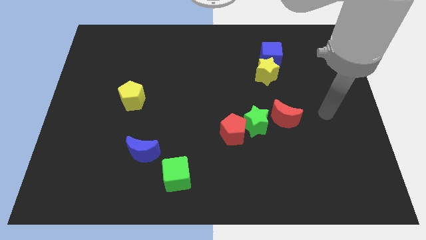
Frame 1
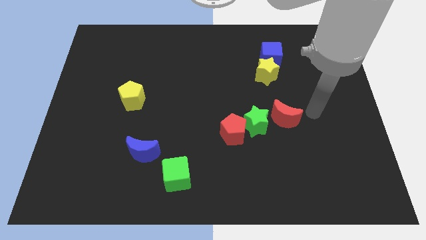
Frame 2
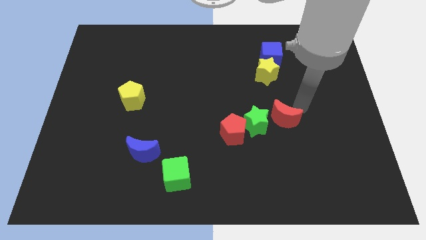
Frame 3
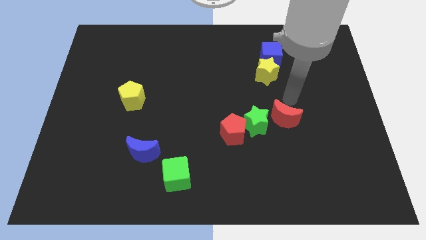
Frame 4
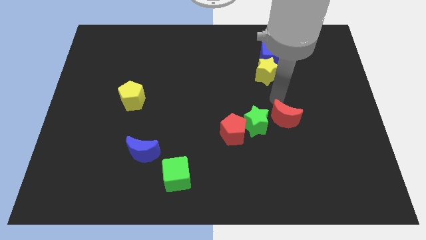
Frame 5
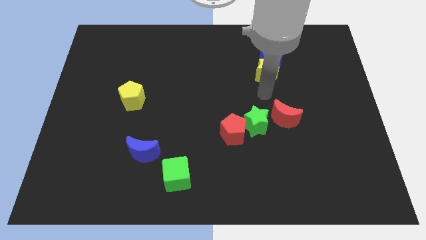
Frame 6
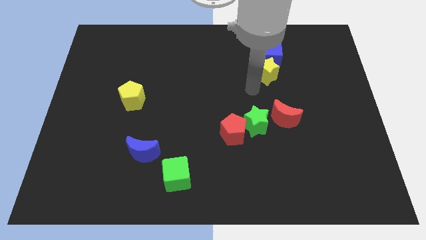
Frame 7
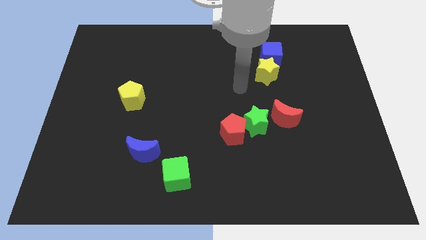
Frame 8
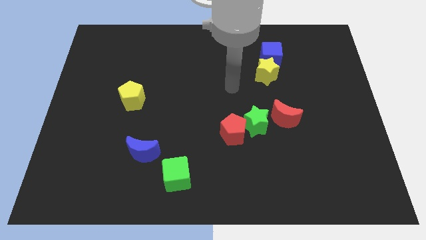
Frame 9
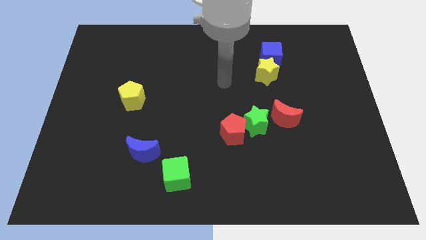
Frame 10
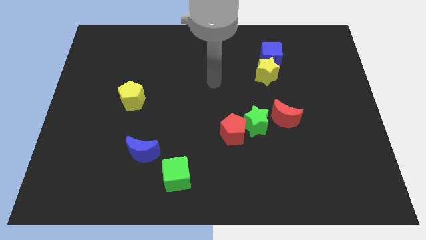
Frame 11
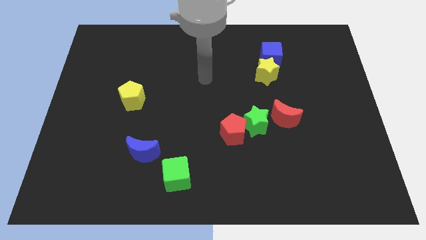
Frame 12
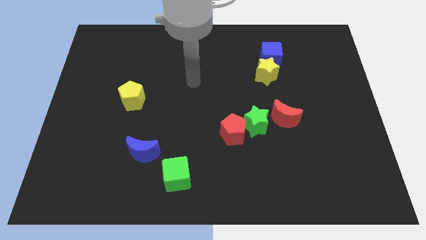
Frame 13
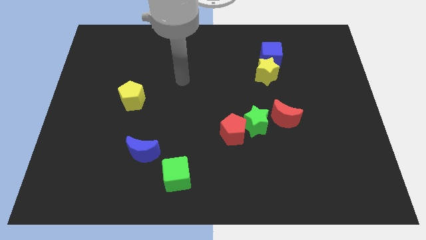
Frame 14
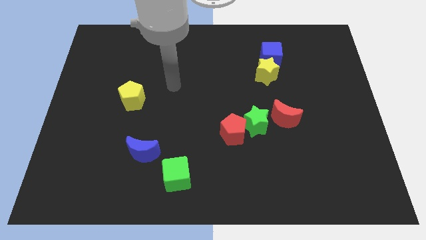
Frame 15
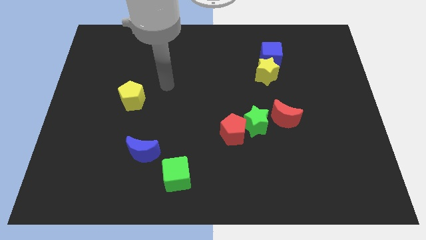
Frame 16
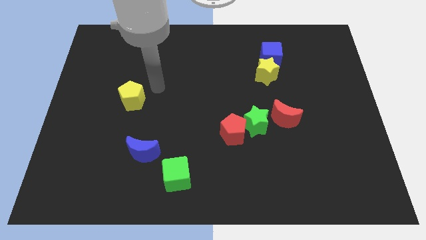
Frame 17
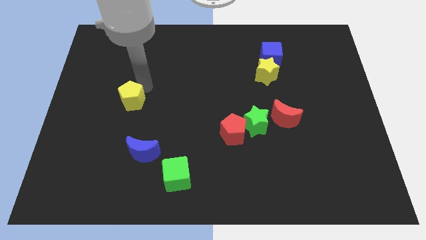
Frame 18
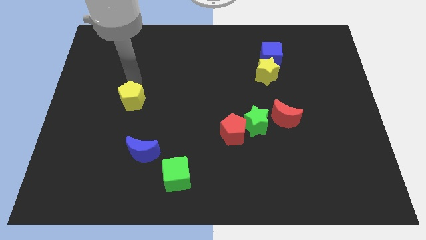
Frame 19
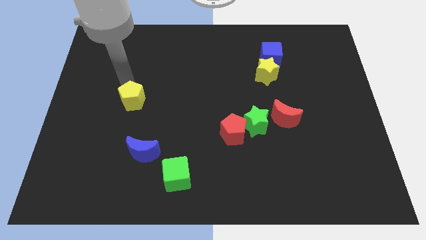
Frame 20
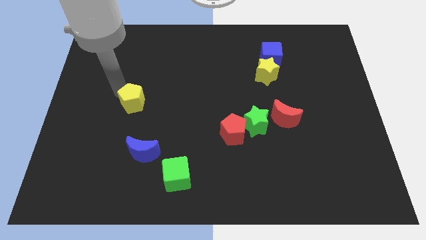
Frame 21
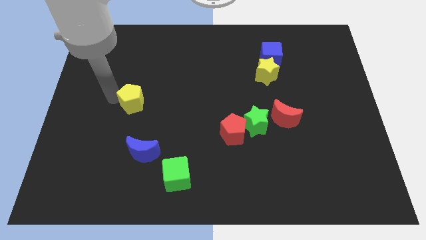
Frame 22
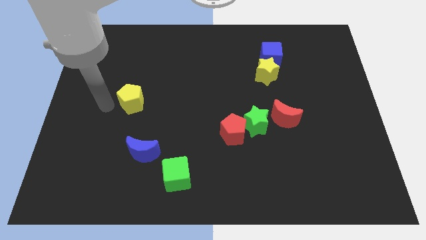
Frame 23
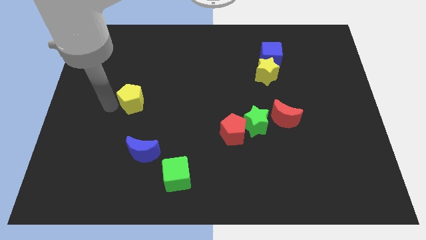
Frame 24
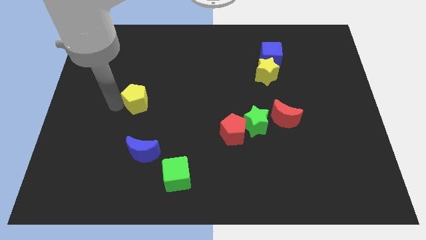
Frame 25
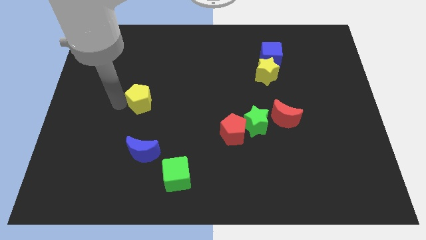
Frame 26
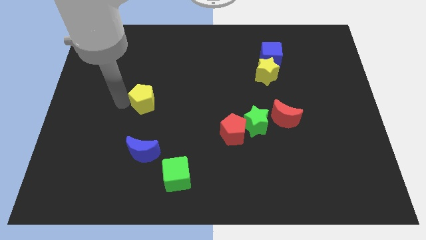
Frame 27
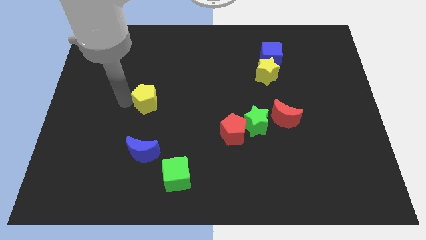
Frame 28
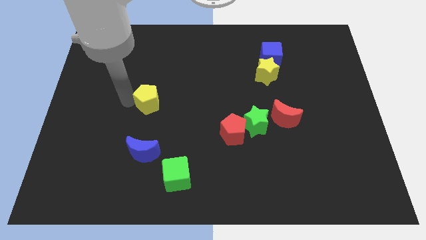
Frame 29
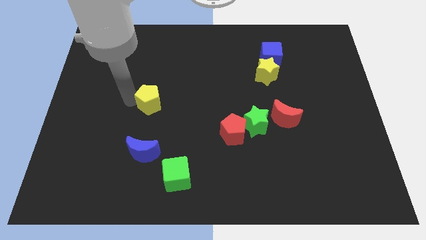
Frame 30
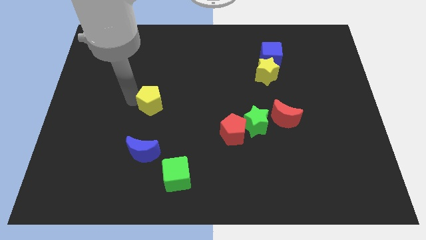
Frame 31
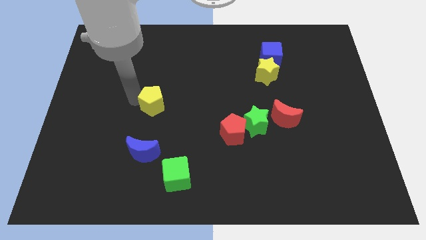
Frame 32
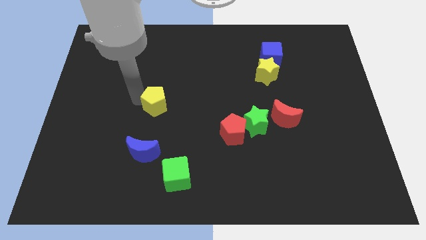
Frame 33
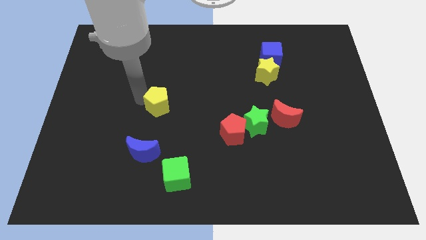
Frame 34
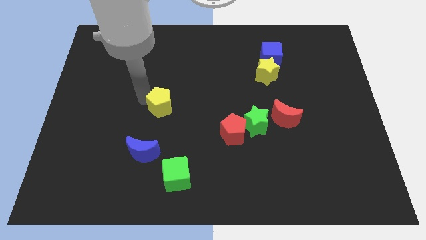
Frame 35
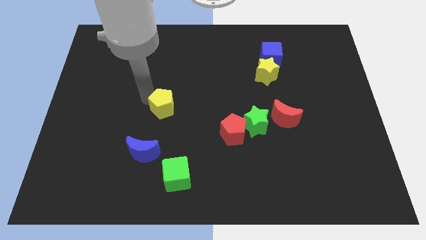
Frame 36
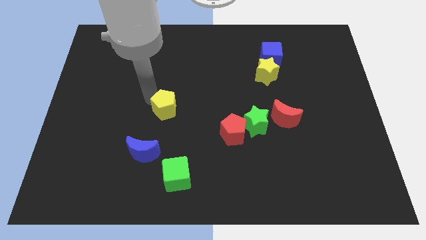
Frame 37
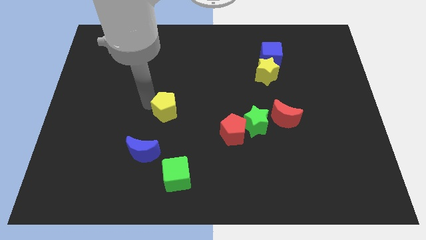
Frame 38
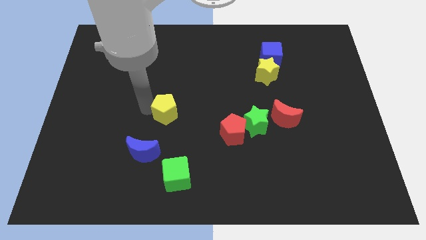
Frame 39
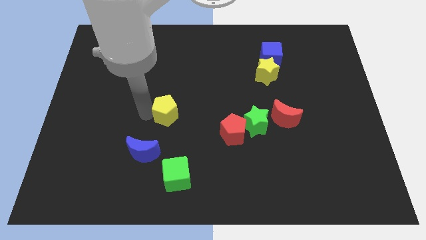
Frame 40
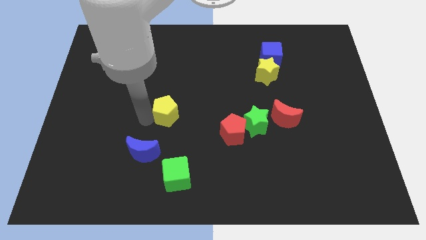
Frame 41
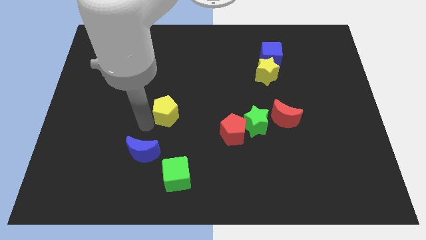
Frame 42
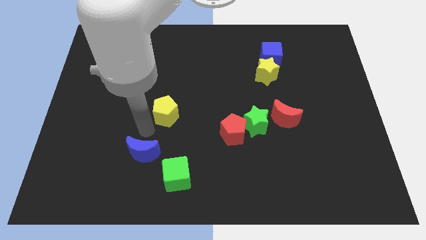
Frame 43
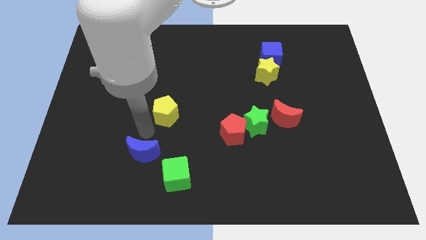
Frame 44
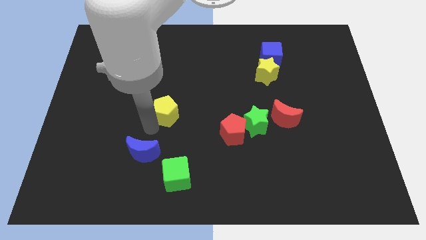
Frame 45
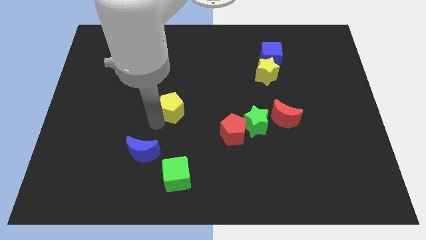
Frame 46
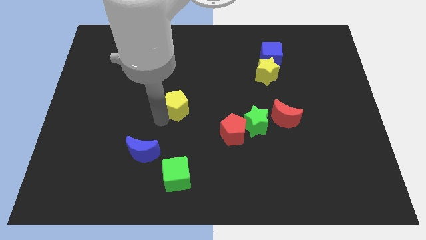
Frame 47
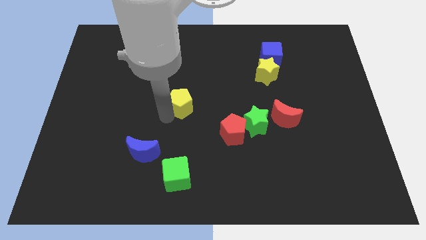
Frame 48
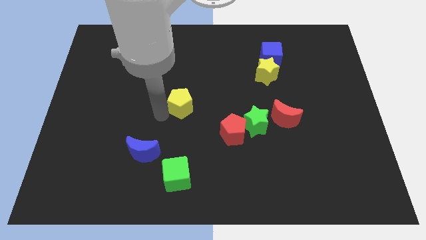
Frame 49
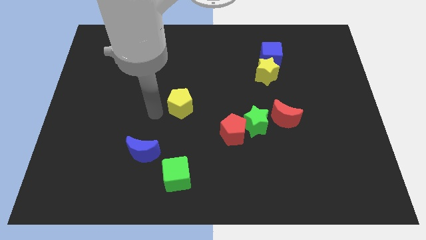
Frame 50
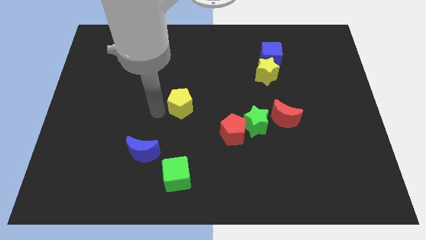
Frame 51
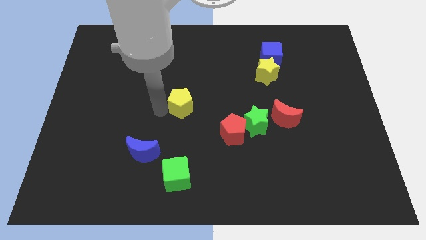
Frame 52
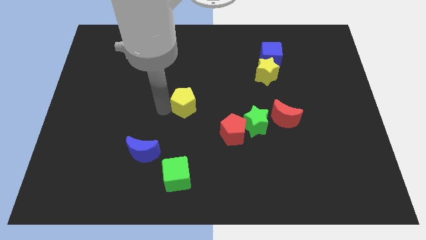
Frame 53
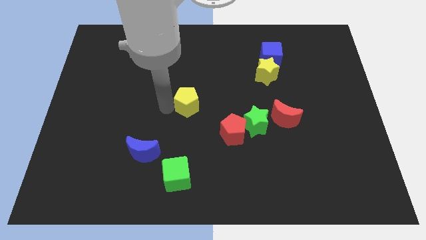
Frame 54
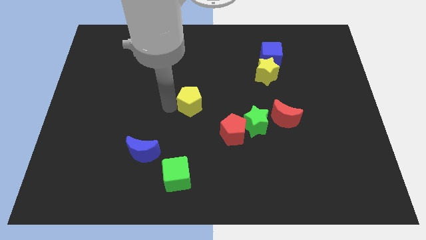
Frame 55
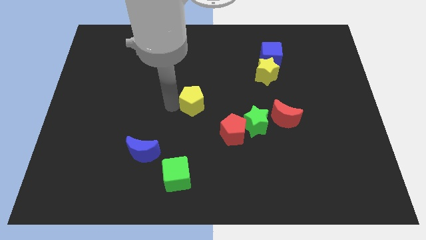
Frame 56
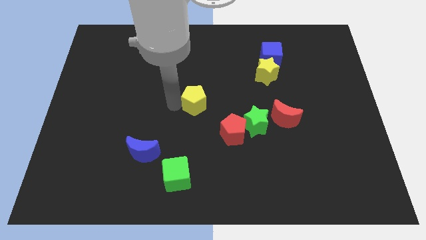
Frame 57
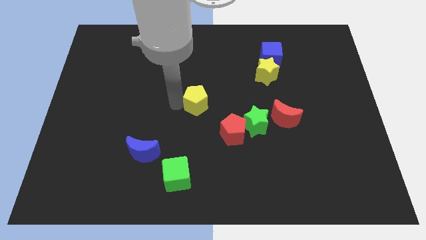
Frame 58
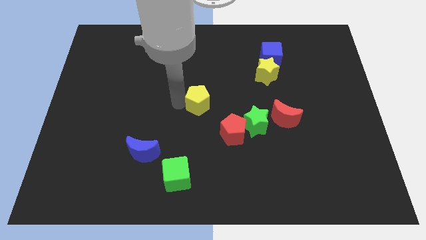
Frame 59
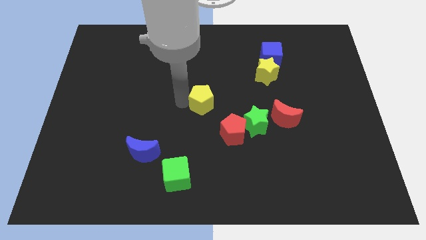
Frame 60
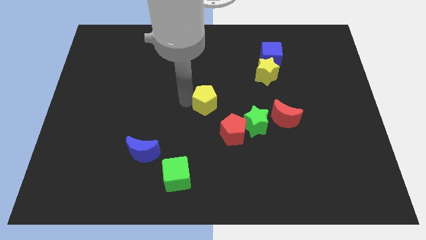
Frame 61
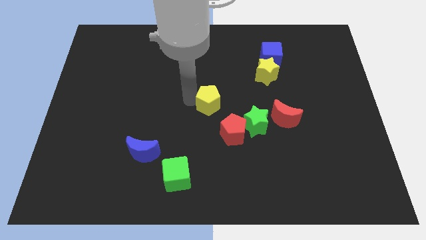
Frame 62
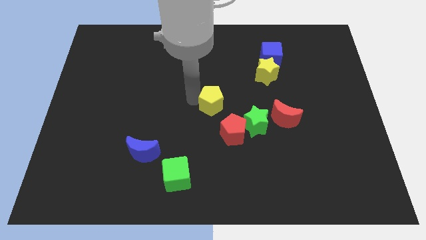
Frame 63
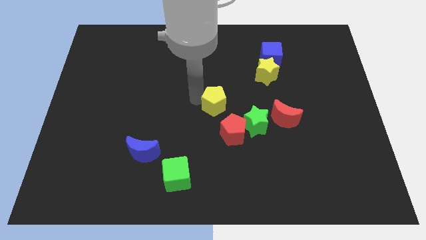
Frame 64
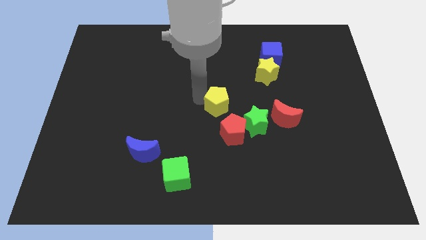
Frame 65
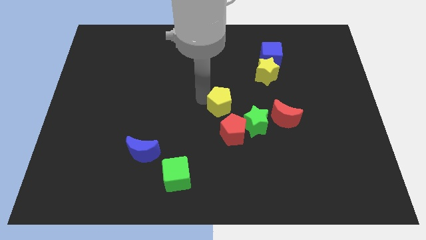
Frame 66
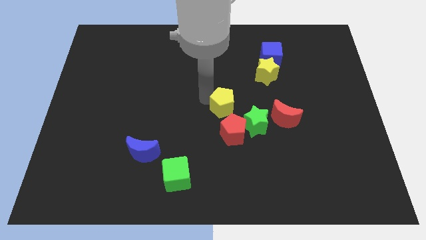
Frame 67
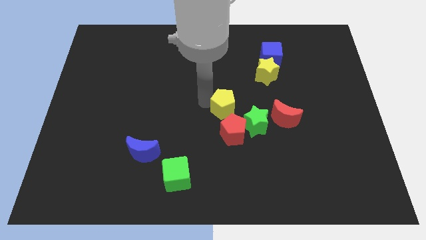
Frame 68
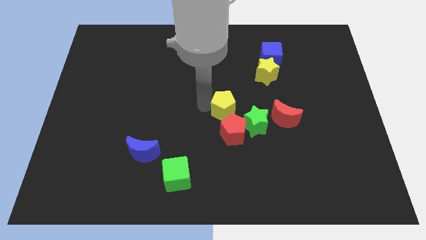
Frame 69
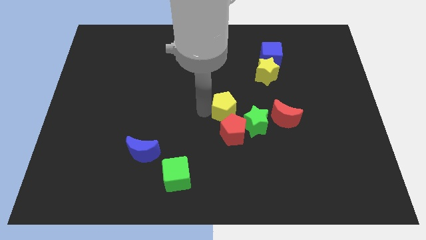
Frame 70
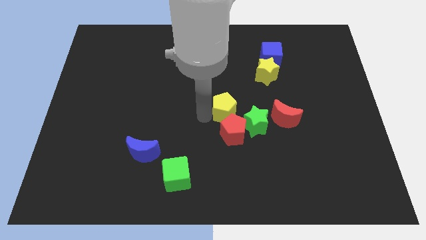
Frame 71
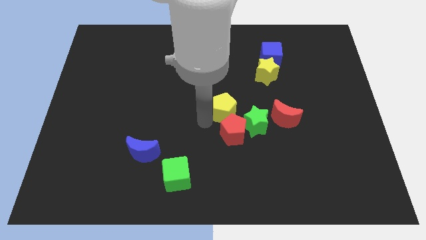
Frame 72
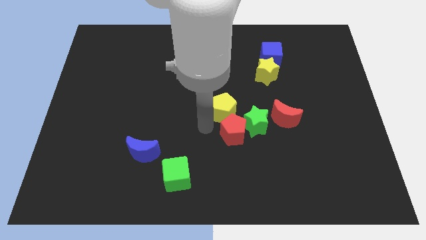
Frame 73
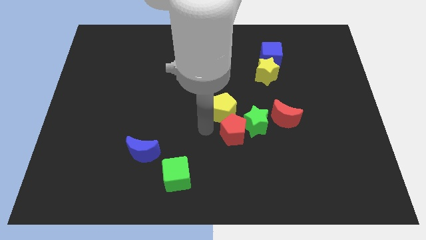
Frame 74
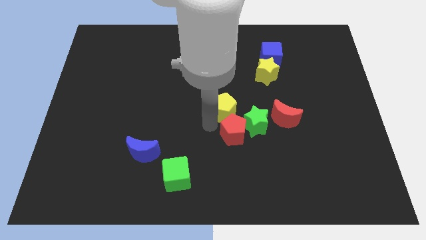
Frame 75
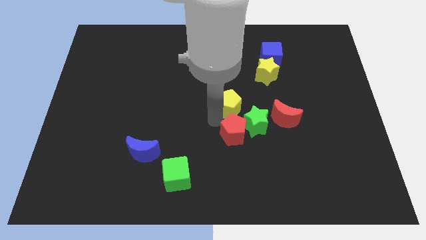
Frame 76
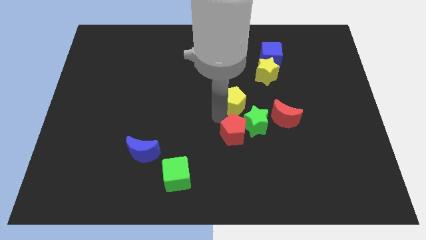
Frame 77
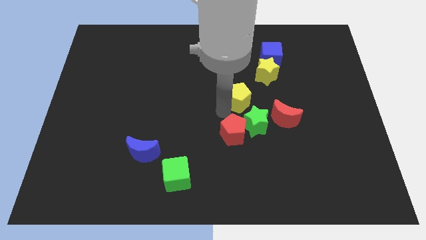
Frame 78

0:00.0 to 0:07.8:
slide the yellow pentagon diagonally up and to the left of the red moon
